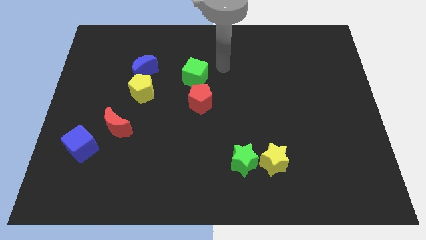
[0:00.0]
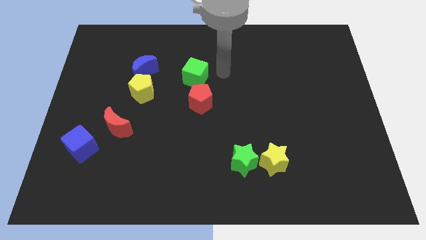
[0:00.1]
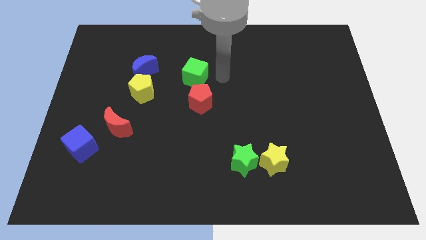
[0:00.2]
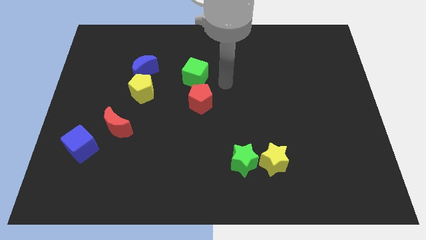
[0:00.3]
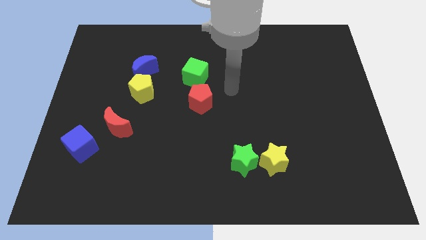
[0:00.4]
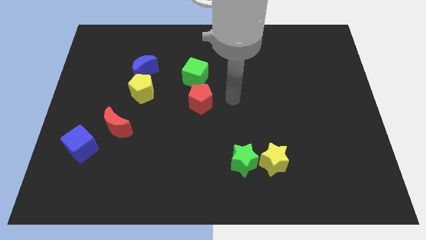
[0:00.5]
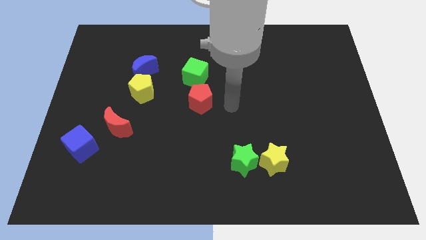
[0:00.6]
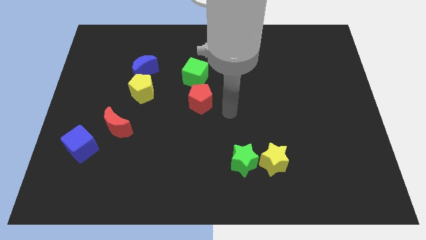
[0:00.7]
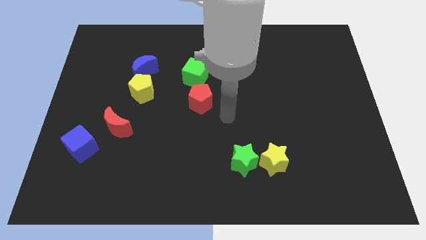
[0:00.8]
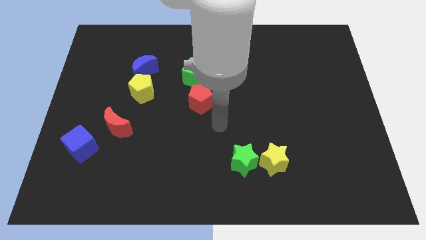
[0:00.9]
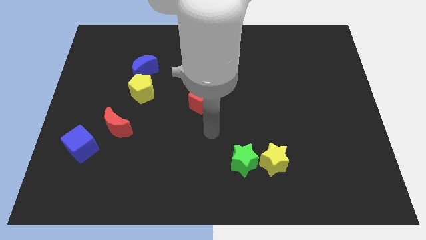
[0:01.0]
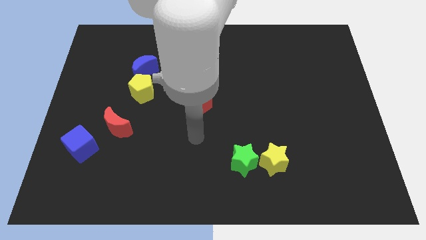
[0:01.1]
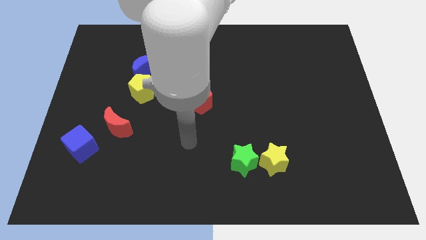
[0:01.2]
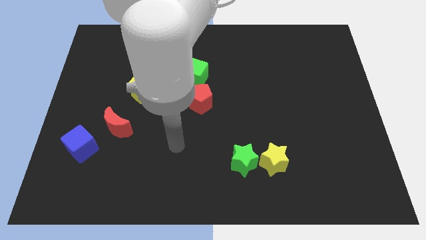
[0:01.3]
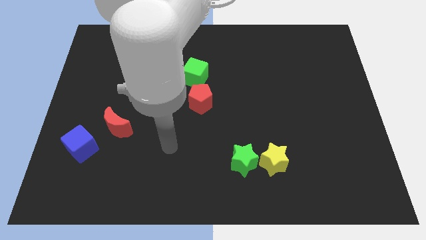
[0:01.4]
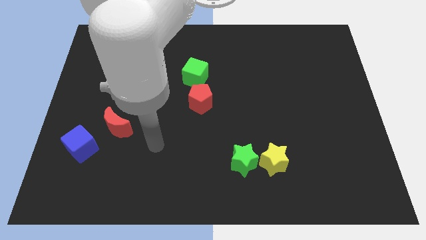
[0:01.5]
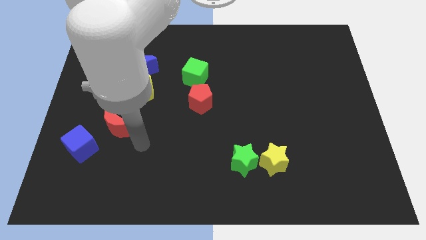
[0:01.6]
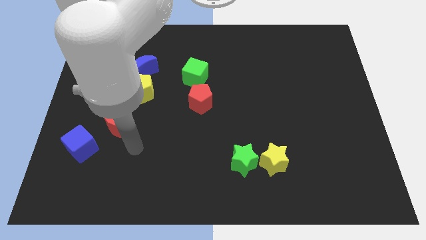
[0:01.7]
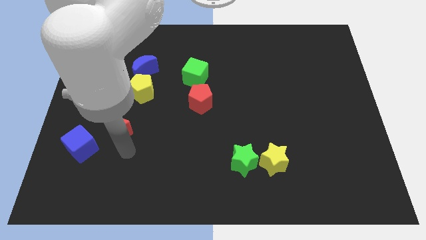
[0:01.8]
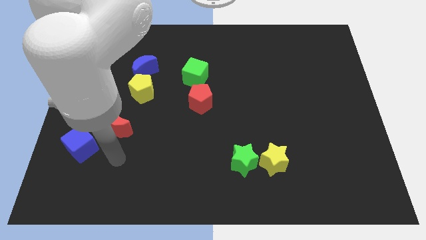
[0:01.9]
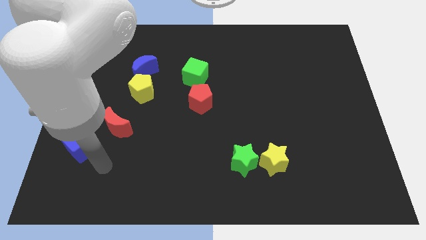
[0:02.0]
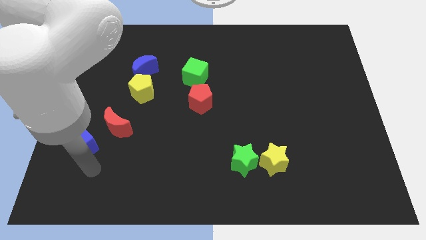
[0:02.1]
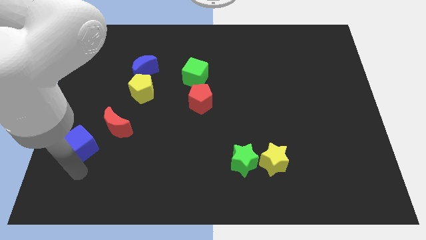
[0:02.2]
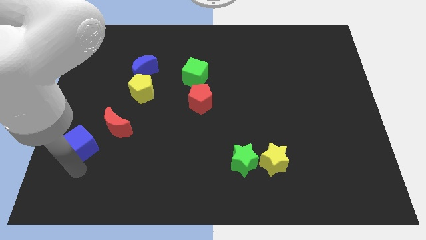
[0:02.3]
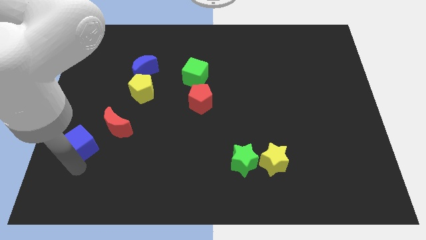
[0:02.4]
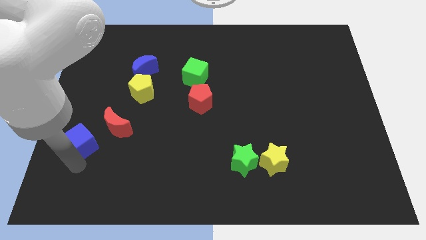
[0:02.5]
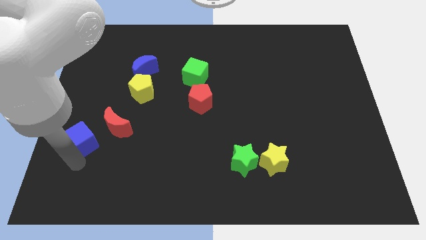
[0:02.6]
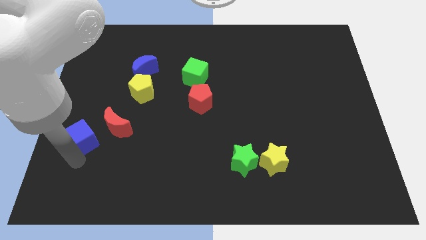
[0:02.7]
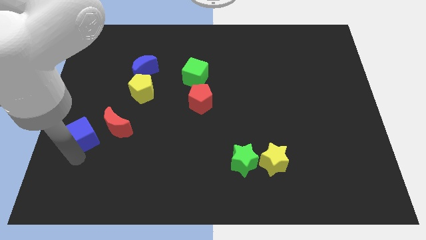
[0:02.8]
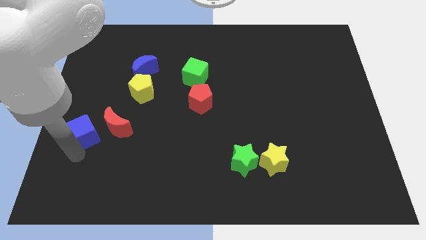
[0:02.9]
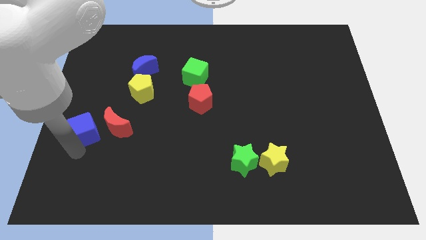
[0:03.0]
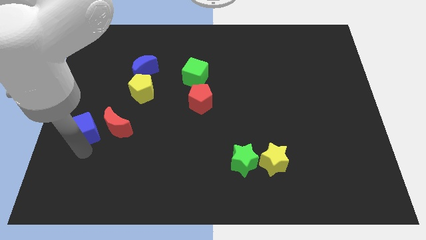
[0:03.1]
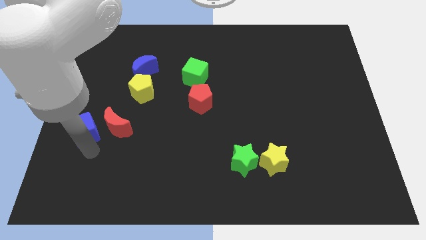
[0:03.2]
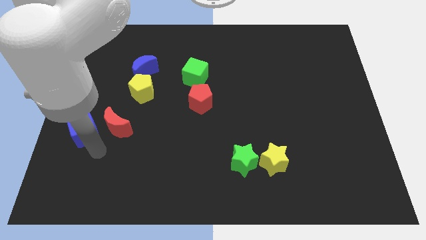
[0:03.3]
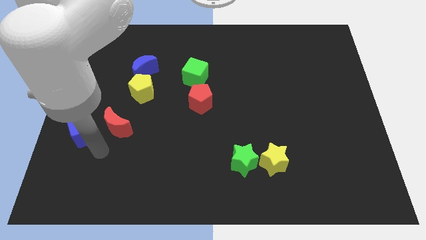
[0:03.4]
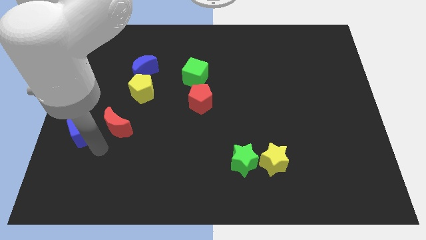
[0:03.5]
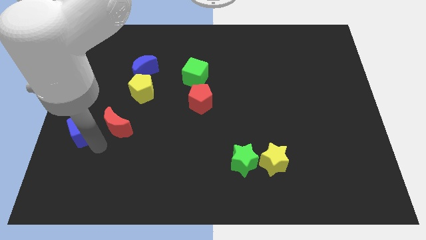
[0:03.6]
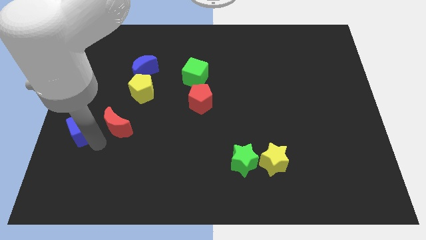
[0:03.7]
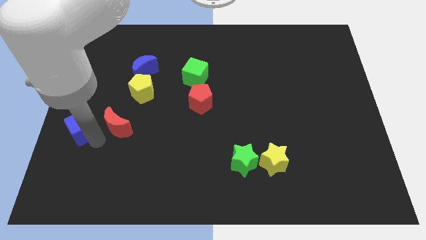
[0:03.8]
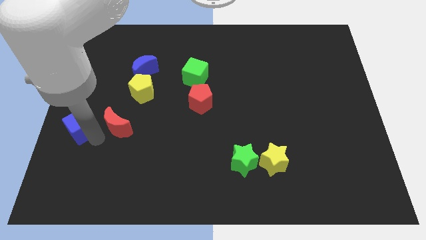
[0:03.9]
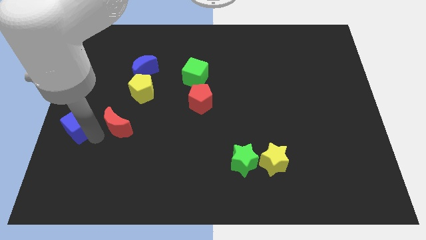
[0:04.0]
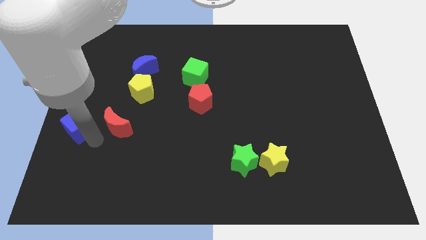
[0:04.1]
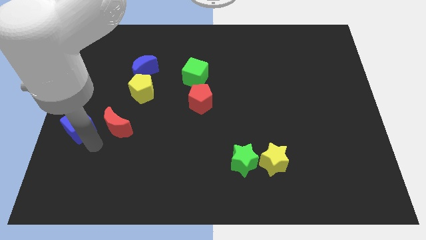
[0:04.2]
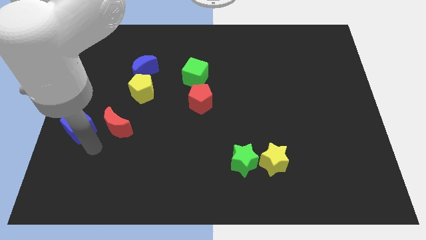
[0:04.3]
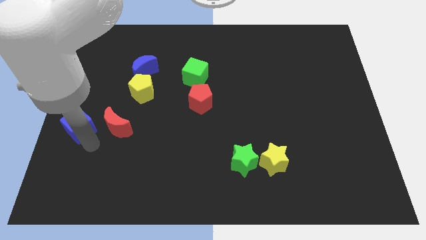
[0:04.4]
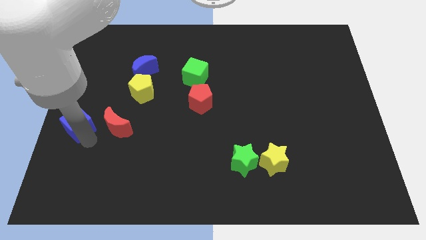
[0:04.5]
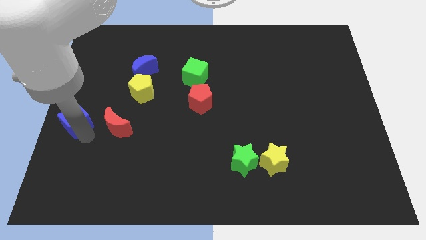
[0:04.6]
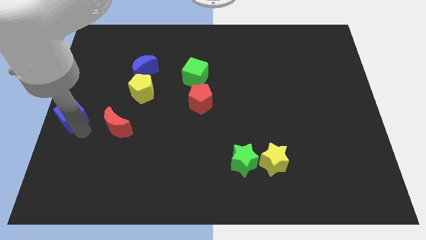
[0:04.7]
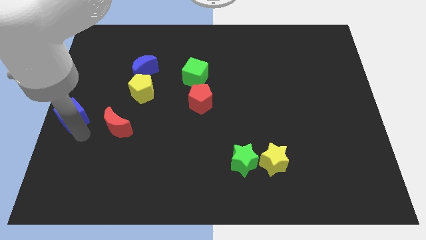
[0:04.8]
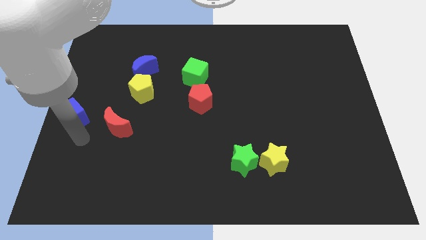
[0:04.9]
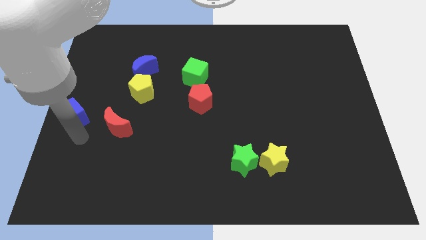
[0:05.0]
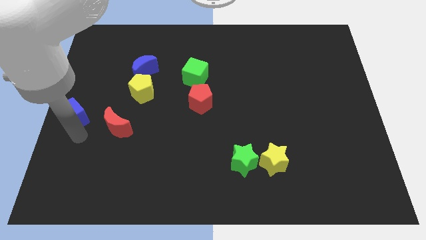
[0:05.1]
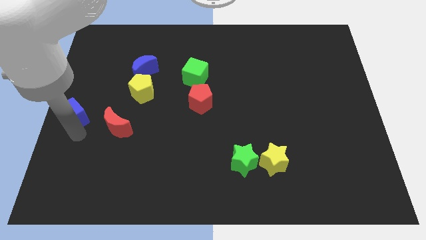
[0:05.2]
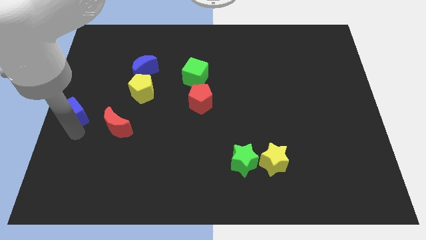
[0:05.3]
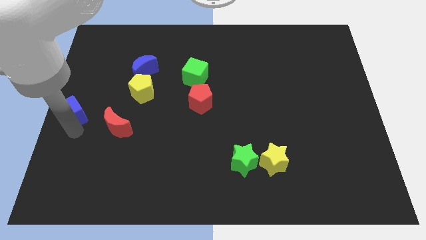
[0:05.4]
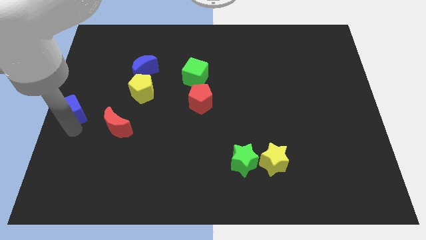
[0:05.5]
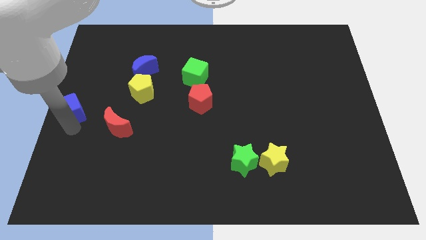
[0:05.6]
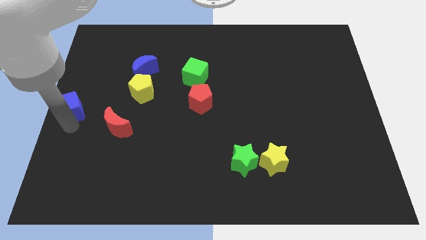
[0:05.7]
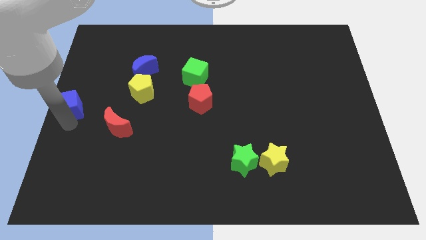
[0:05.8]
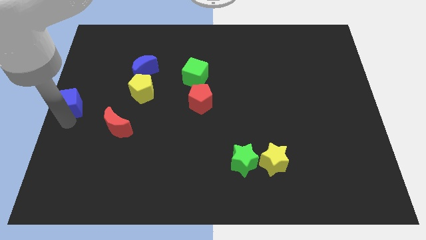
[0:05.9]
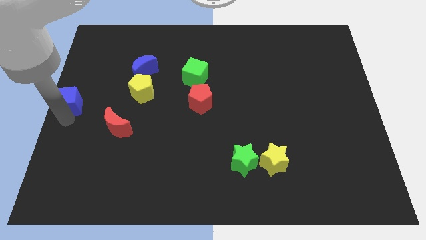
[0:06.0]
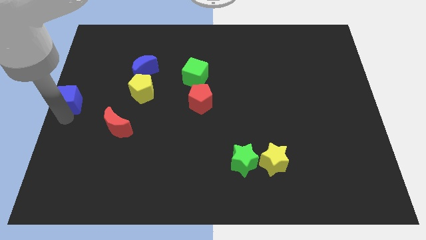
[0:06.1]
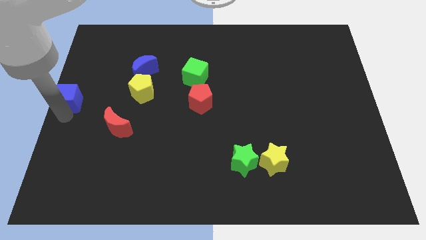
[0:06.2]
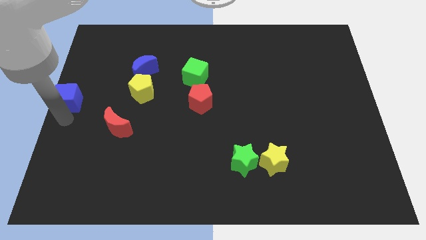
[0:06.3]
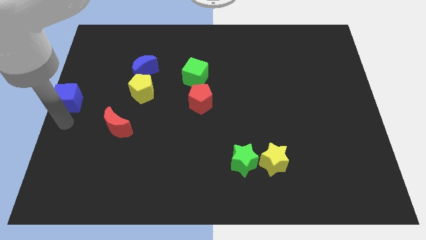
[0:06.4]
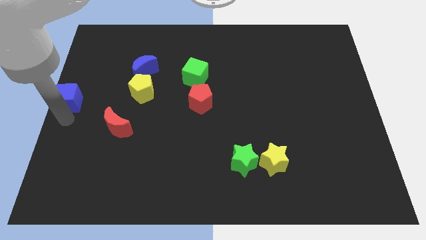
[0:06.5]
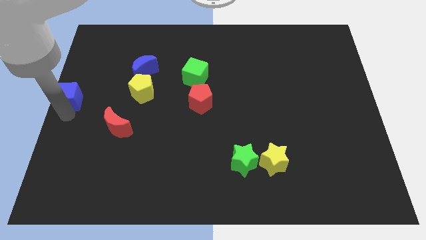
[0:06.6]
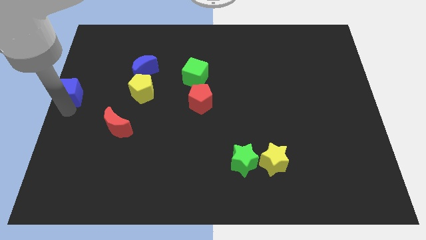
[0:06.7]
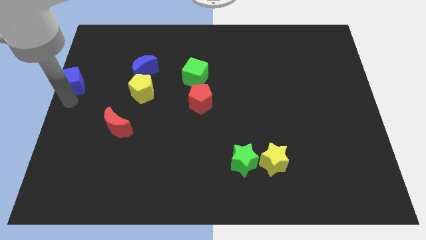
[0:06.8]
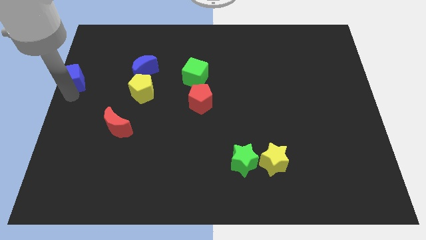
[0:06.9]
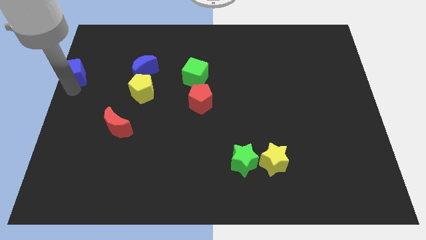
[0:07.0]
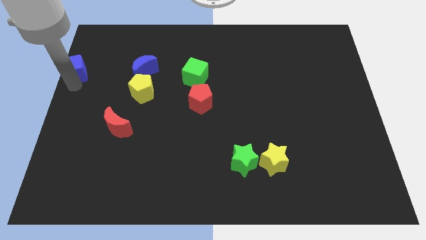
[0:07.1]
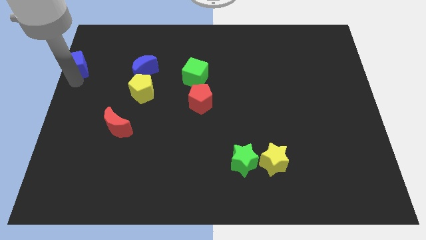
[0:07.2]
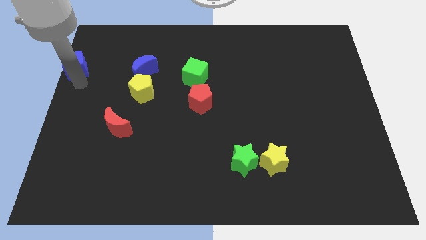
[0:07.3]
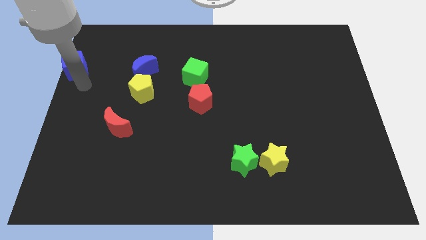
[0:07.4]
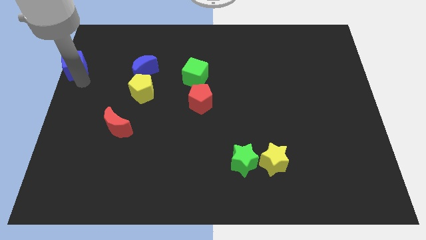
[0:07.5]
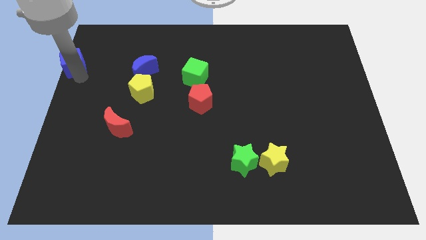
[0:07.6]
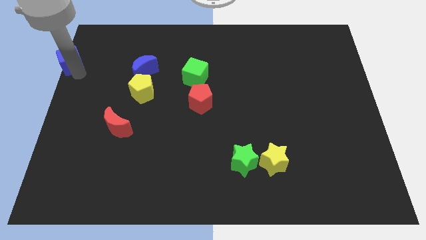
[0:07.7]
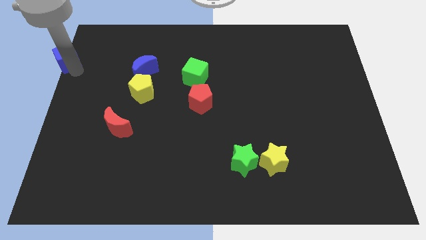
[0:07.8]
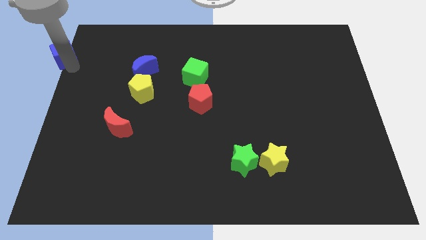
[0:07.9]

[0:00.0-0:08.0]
put the blue cube to the top left of the board
